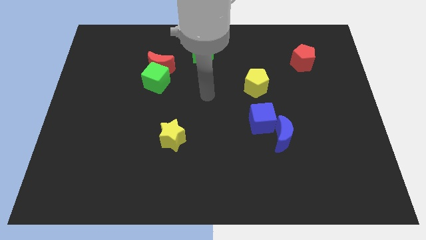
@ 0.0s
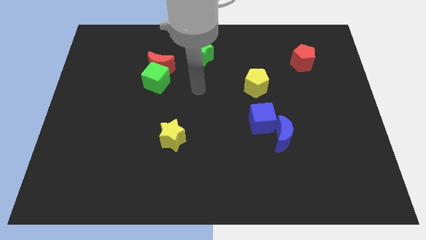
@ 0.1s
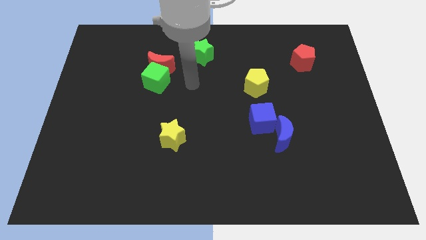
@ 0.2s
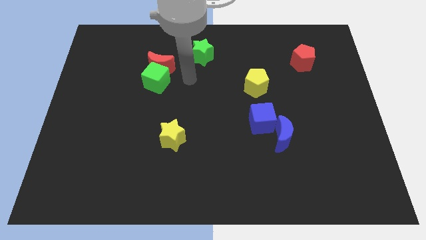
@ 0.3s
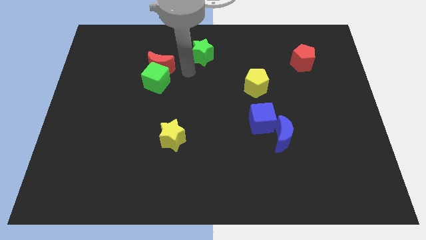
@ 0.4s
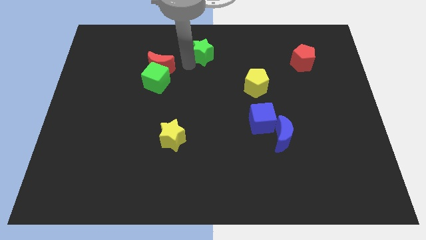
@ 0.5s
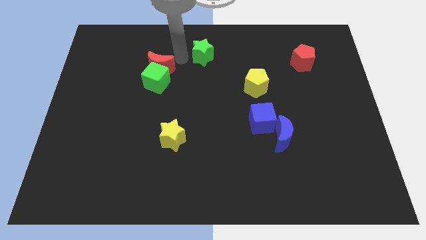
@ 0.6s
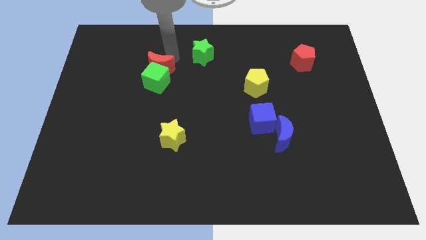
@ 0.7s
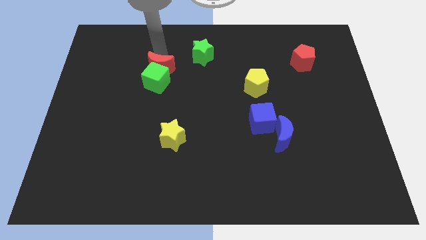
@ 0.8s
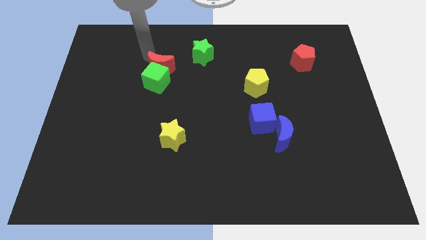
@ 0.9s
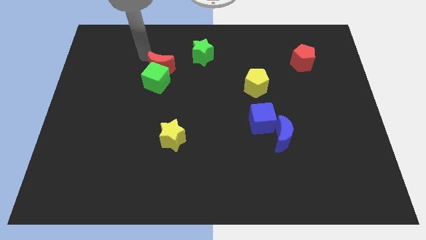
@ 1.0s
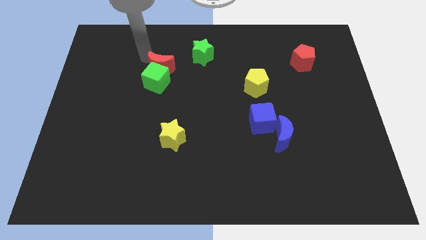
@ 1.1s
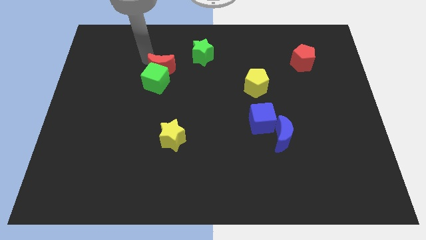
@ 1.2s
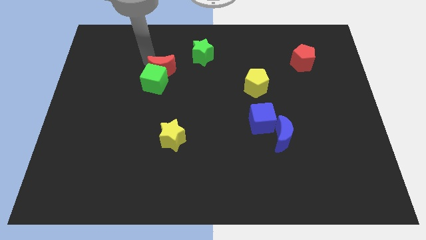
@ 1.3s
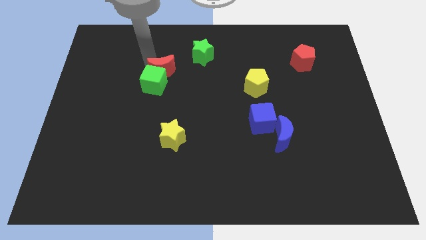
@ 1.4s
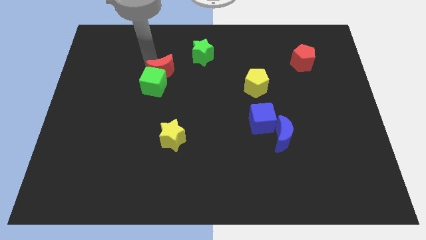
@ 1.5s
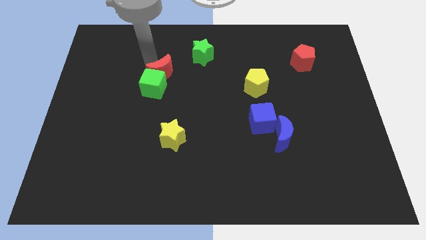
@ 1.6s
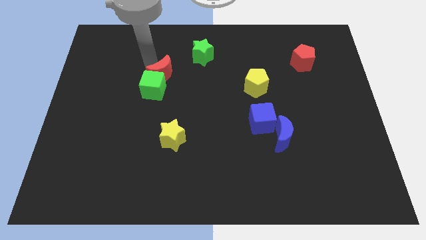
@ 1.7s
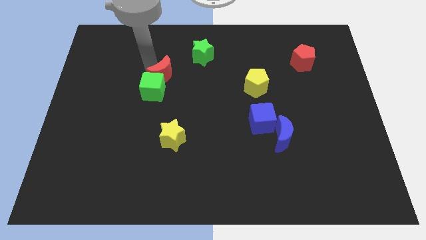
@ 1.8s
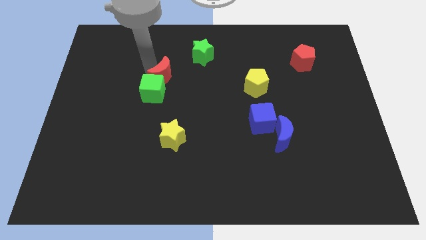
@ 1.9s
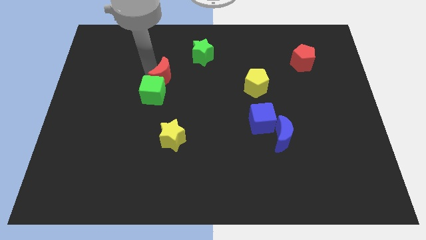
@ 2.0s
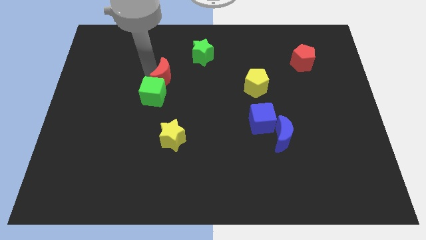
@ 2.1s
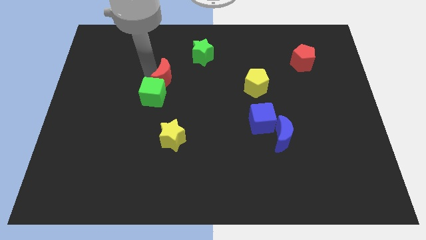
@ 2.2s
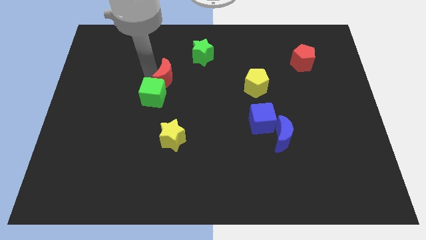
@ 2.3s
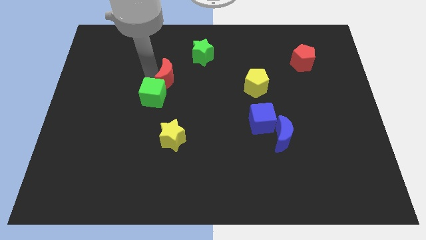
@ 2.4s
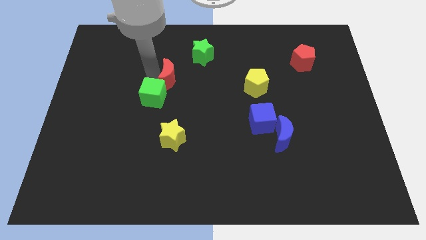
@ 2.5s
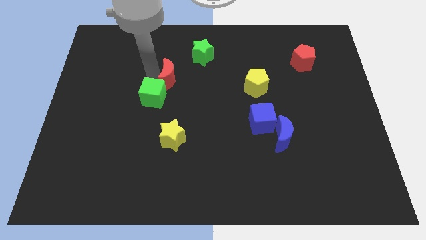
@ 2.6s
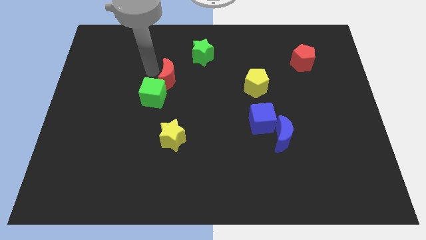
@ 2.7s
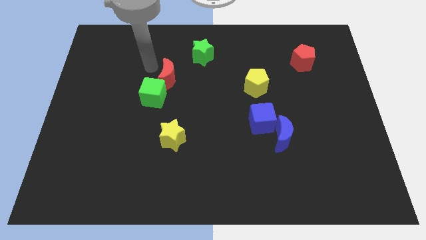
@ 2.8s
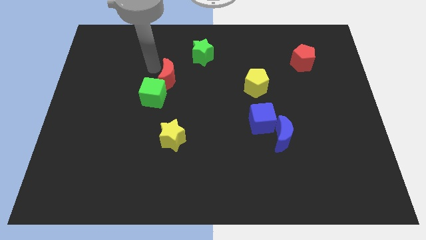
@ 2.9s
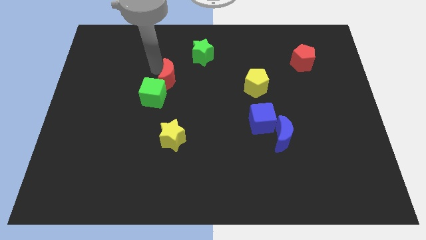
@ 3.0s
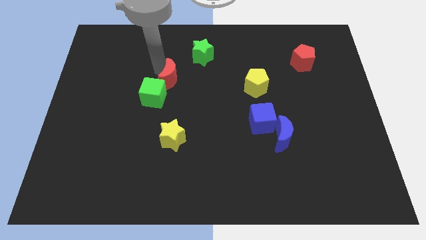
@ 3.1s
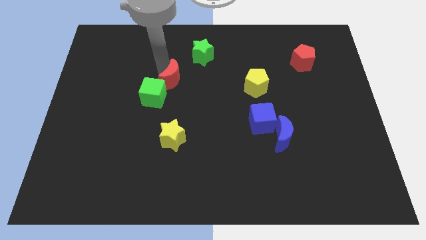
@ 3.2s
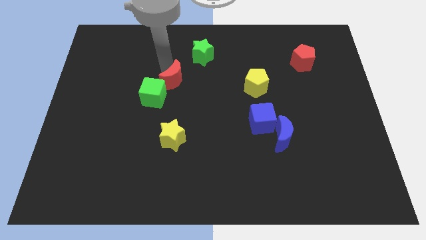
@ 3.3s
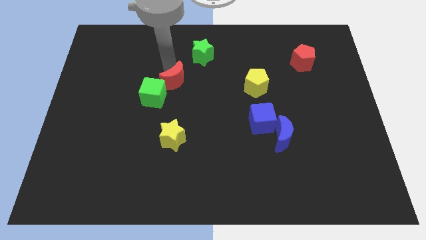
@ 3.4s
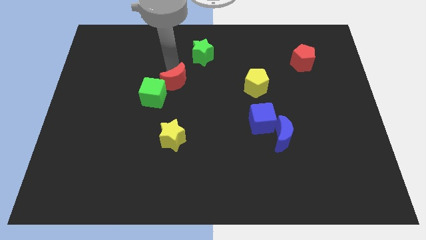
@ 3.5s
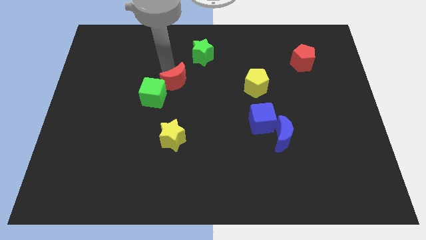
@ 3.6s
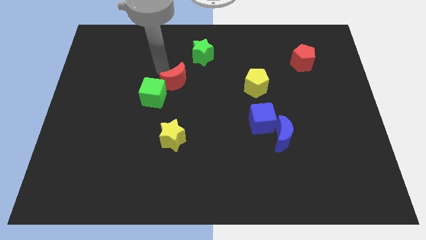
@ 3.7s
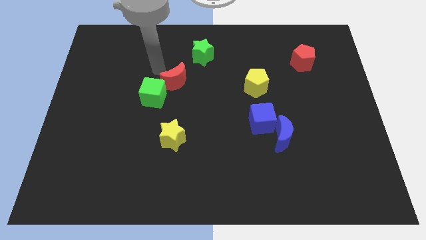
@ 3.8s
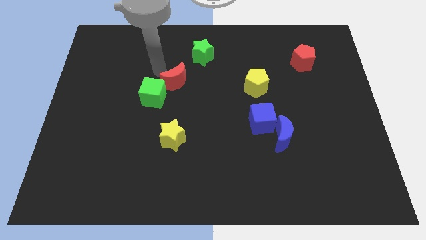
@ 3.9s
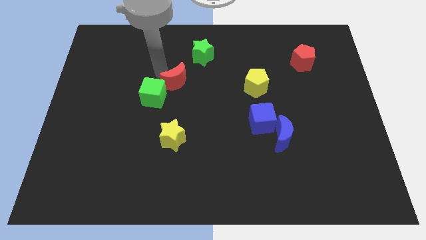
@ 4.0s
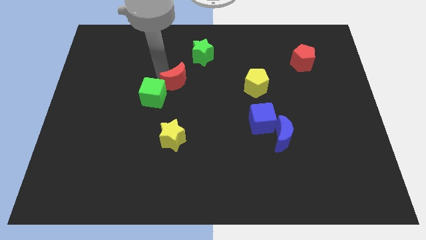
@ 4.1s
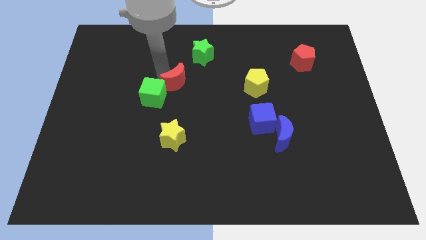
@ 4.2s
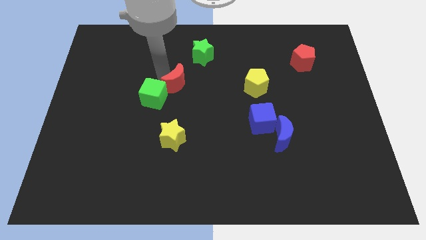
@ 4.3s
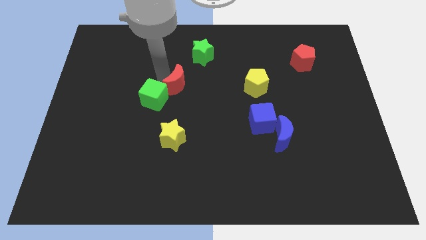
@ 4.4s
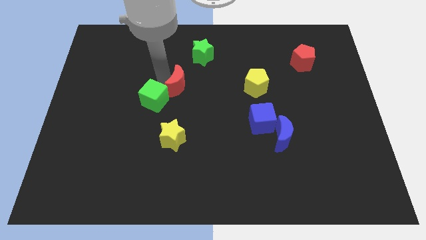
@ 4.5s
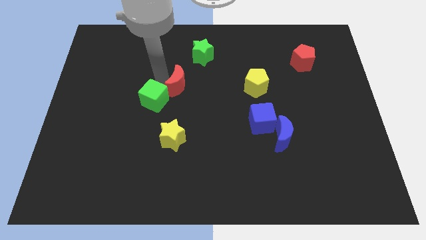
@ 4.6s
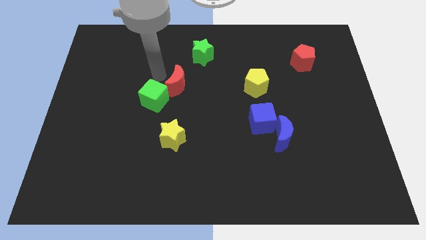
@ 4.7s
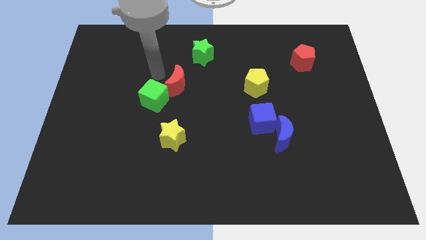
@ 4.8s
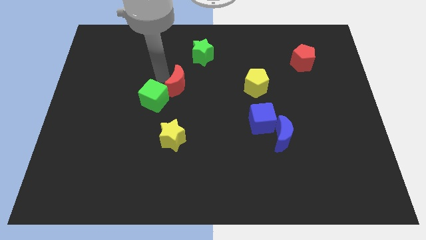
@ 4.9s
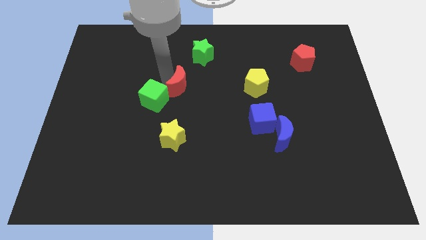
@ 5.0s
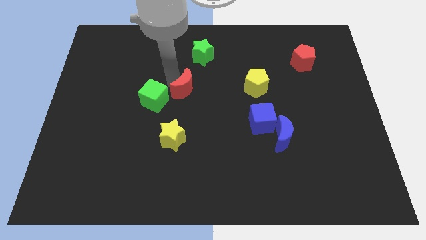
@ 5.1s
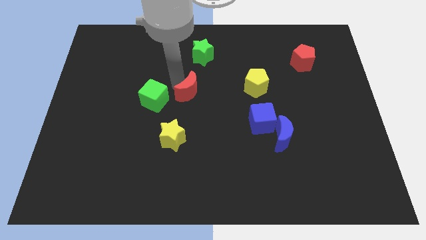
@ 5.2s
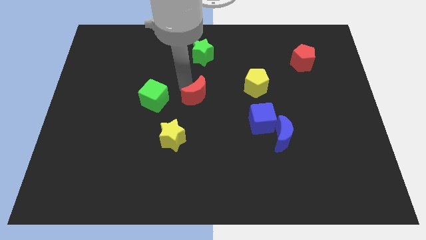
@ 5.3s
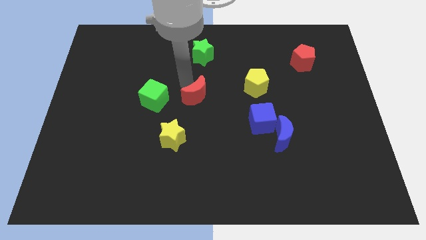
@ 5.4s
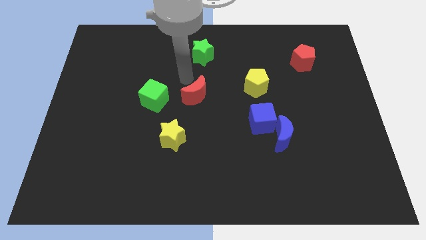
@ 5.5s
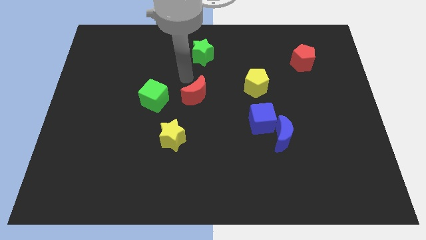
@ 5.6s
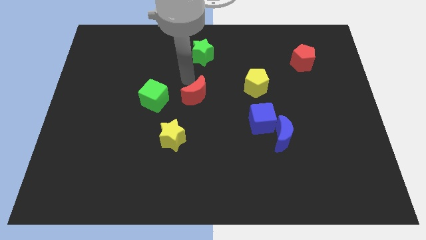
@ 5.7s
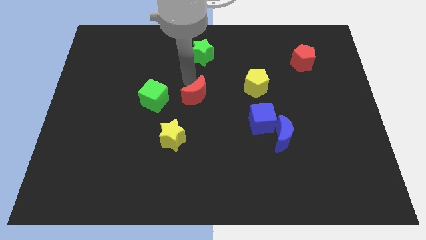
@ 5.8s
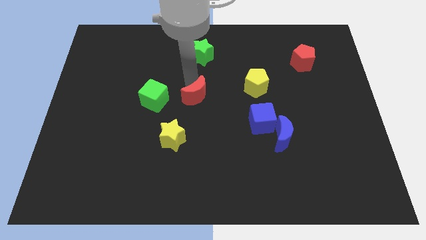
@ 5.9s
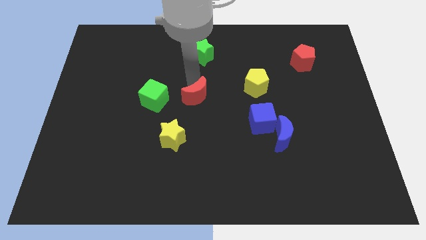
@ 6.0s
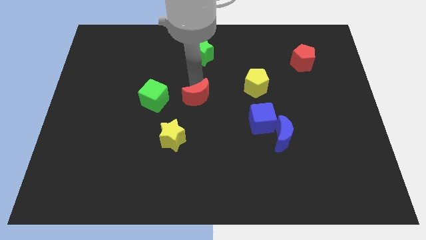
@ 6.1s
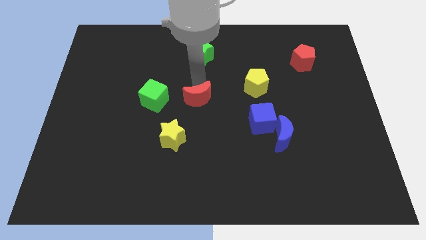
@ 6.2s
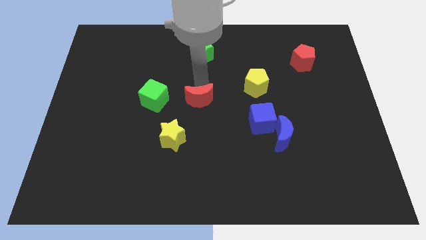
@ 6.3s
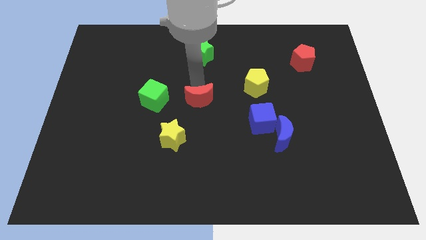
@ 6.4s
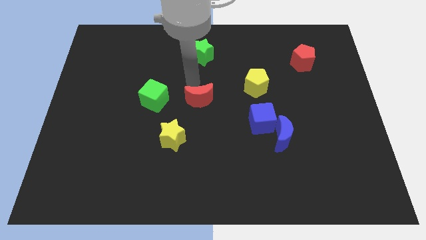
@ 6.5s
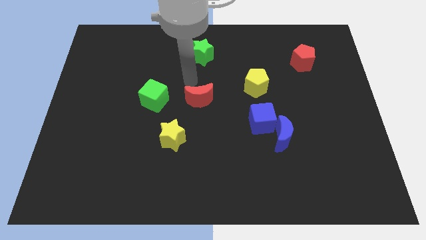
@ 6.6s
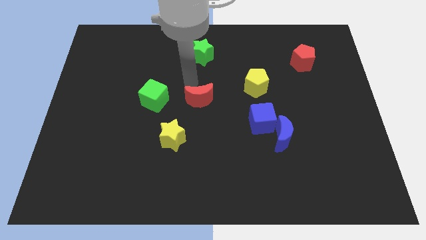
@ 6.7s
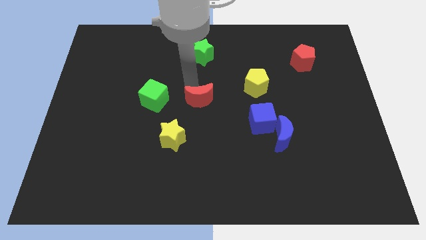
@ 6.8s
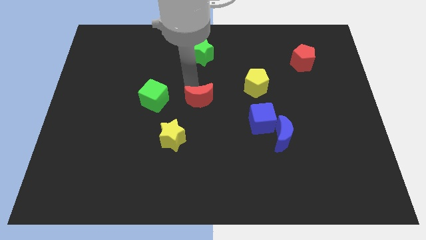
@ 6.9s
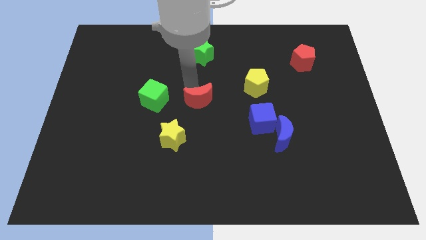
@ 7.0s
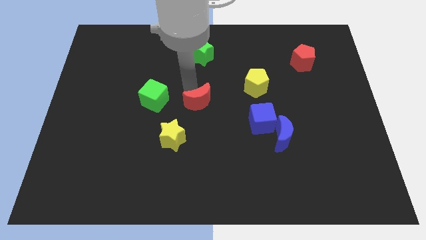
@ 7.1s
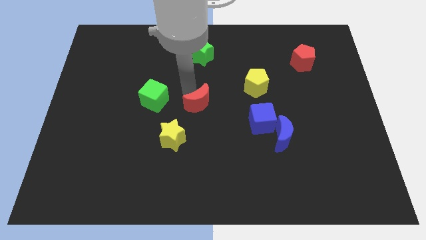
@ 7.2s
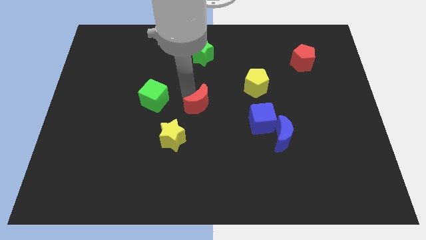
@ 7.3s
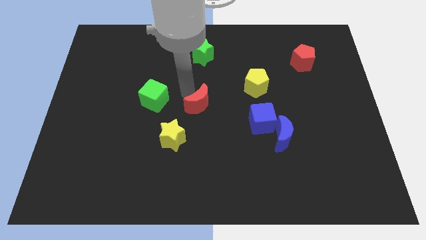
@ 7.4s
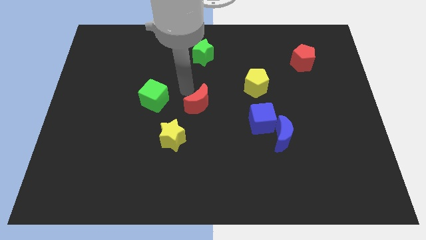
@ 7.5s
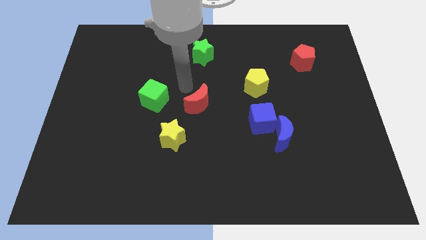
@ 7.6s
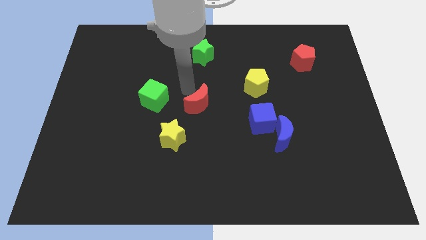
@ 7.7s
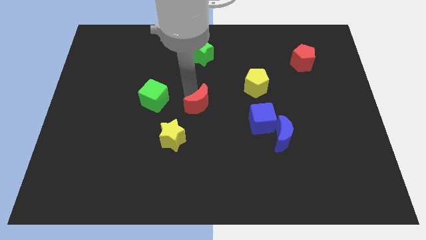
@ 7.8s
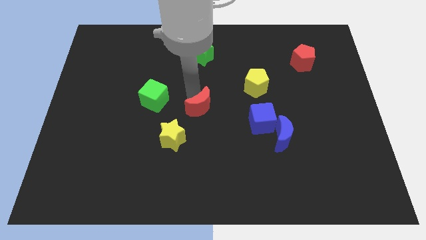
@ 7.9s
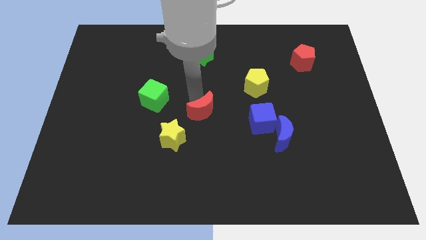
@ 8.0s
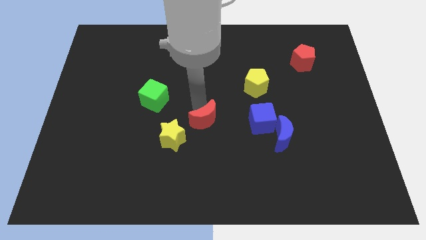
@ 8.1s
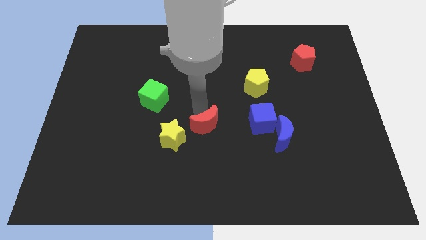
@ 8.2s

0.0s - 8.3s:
move the red moon downwards and then to the right
